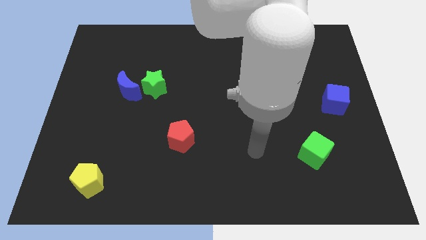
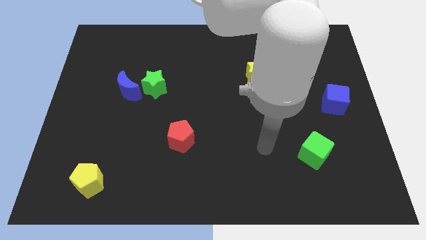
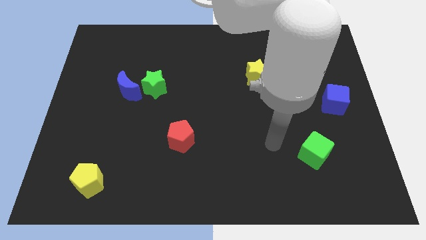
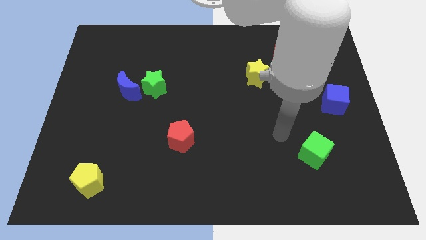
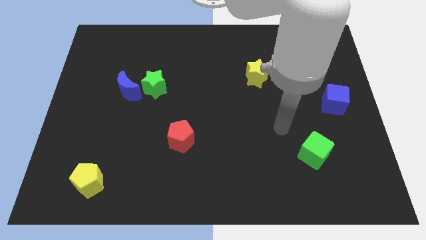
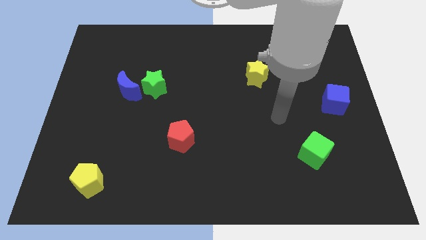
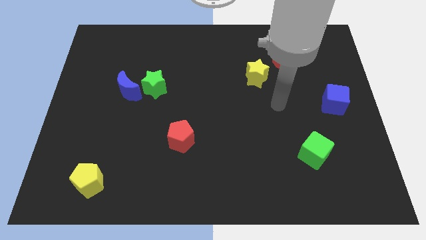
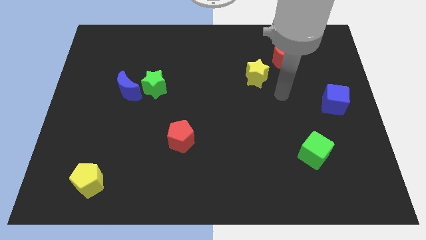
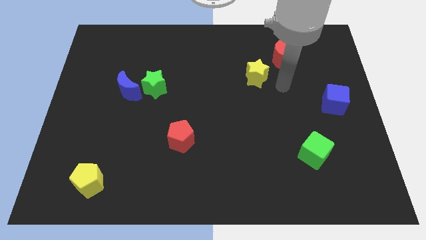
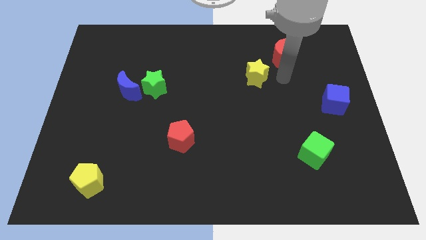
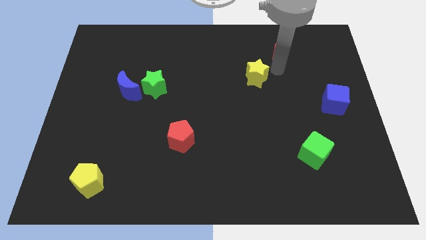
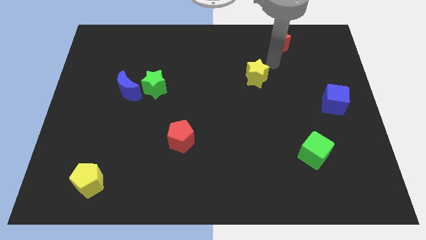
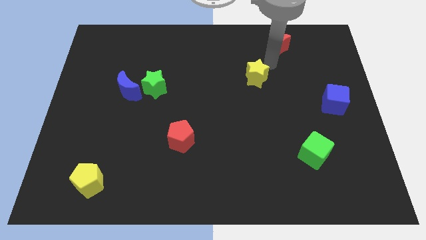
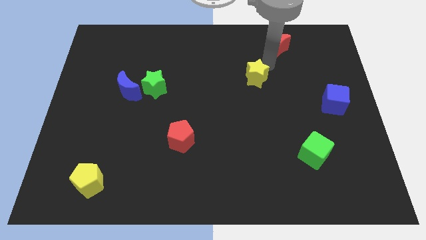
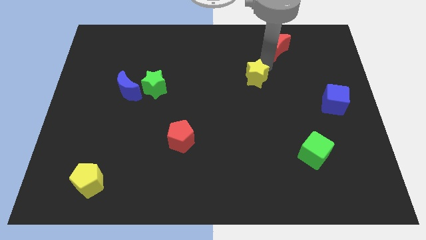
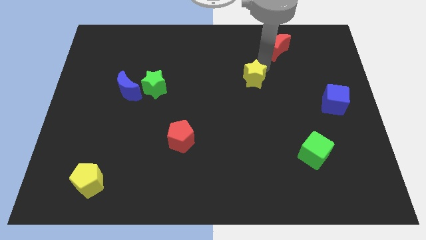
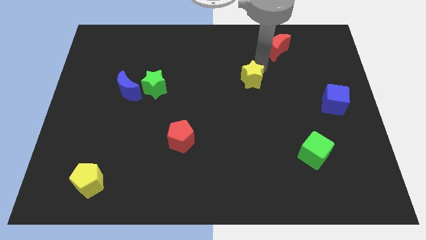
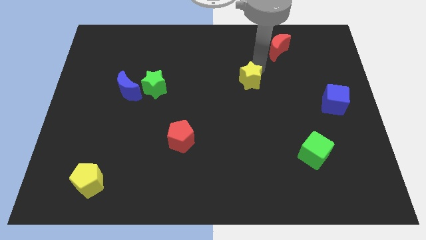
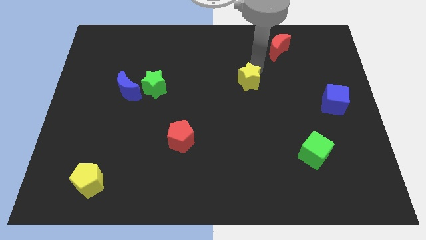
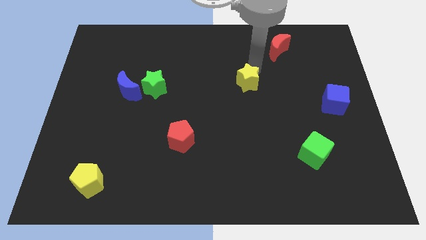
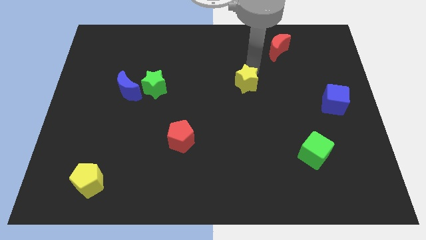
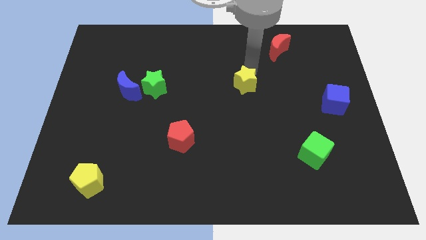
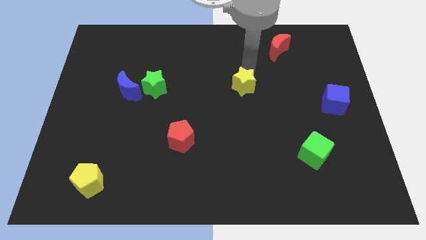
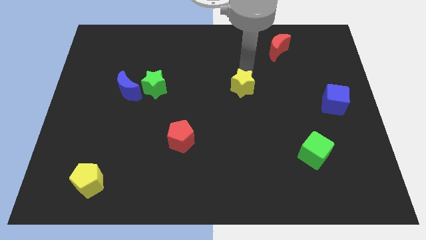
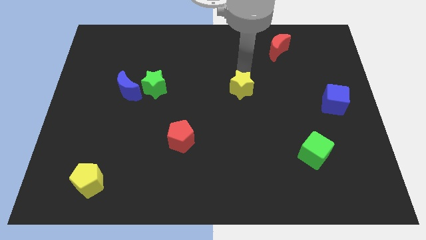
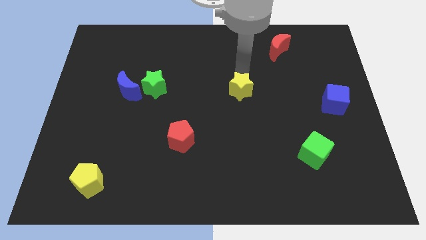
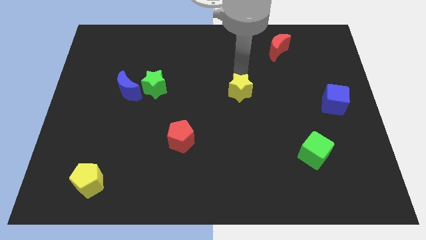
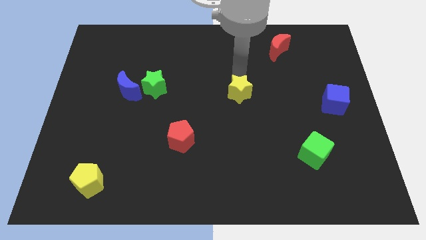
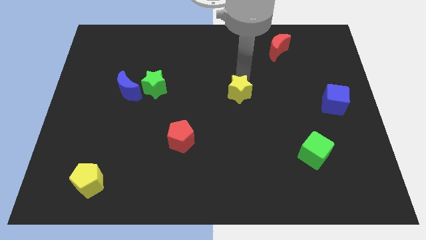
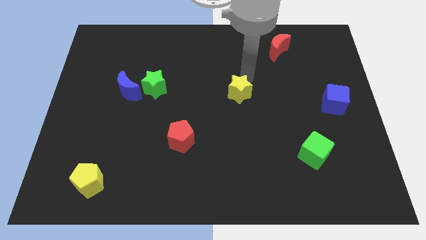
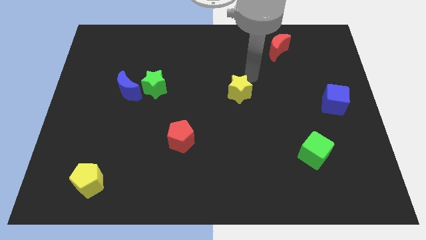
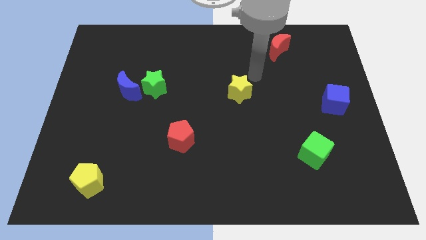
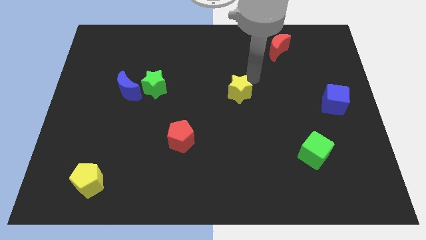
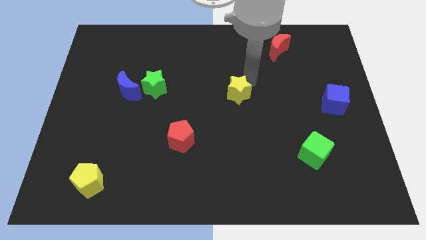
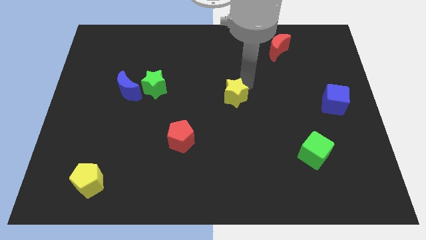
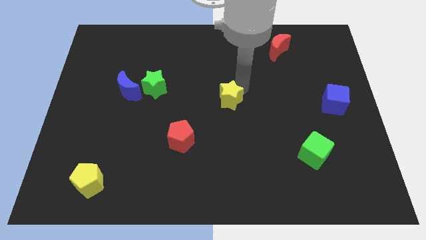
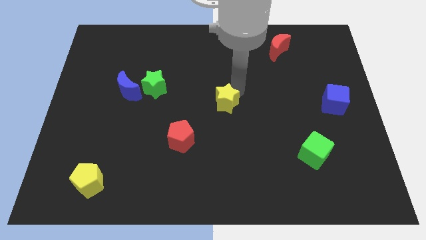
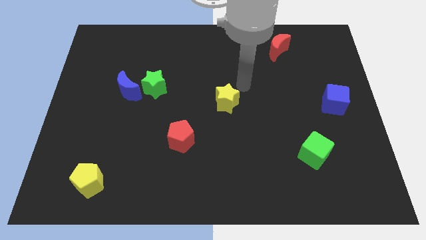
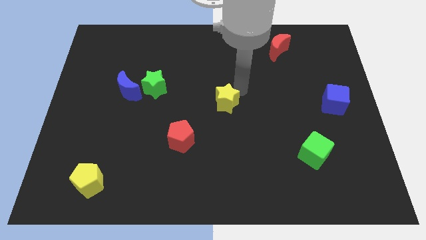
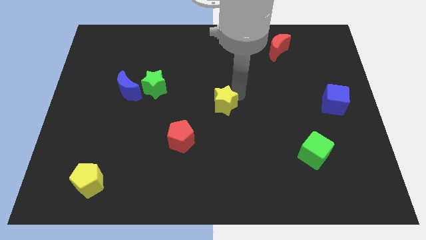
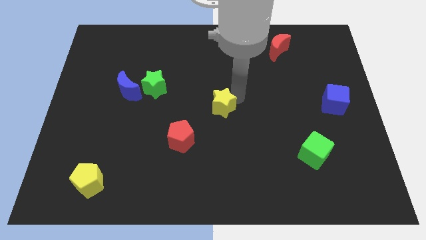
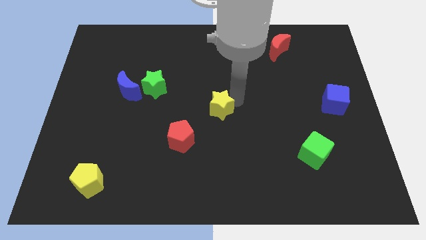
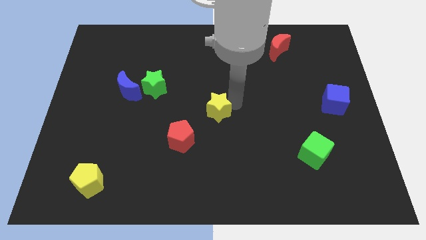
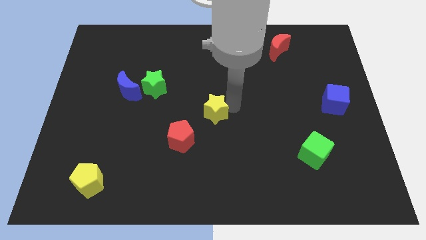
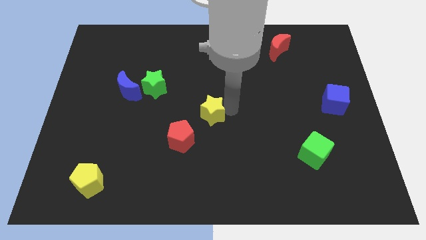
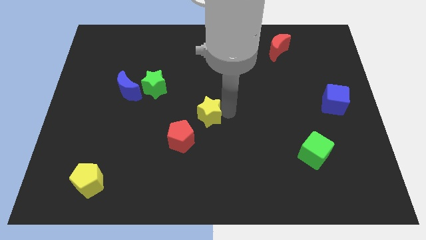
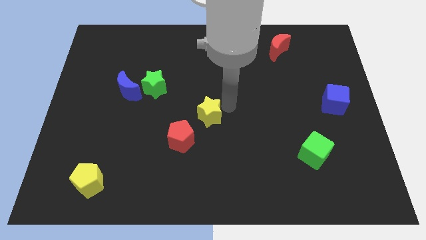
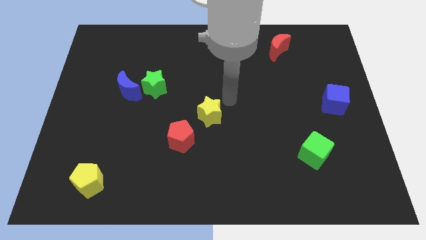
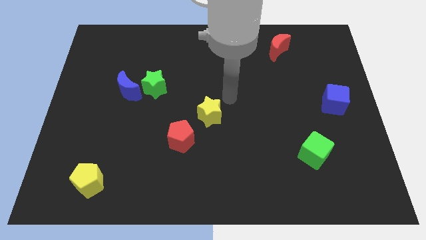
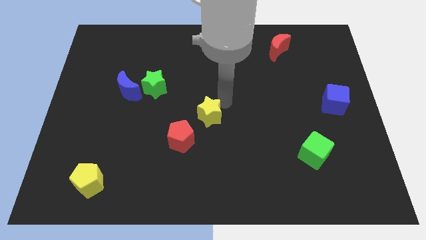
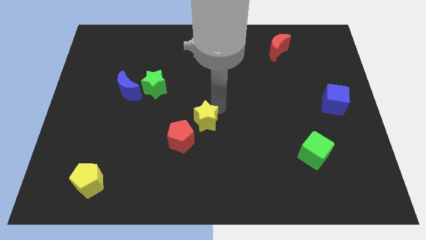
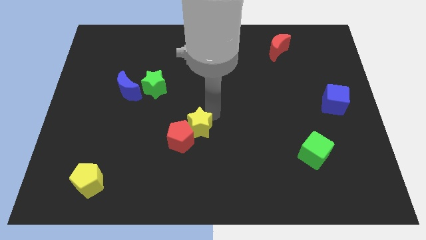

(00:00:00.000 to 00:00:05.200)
slide the yellow star towards the red pentagon

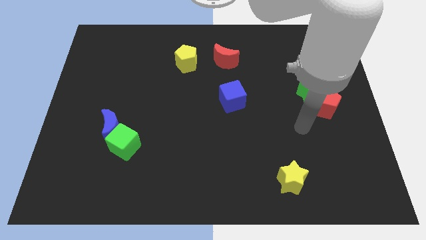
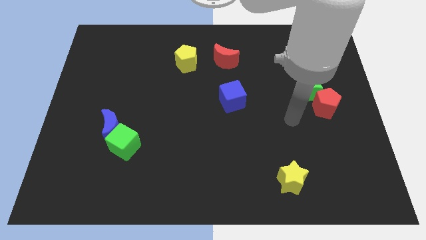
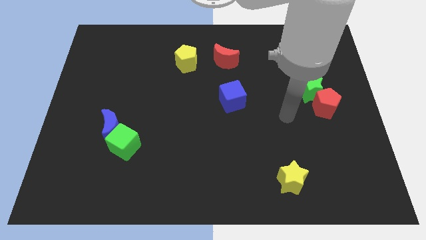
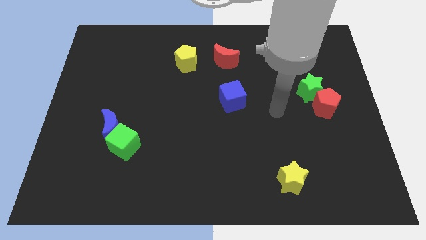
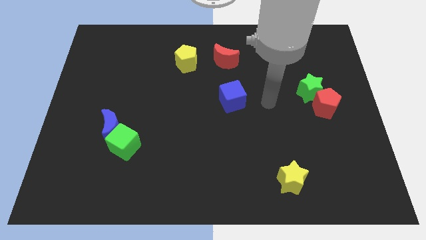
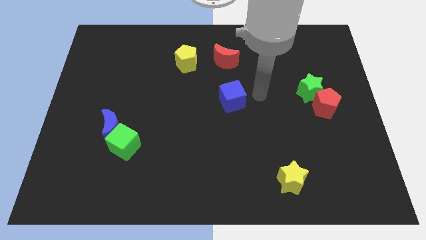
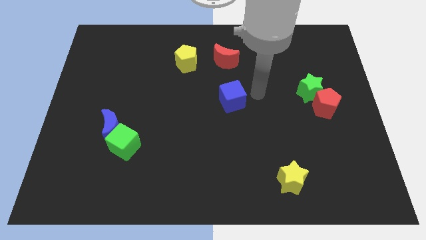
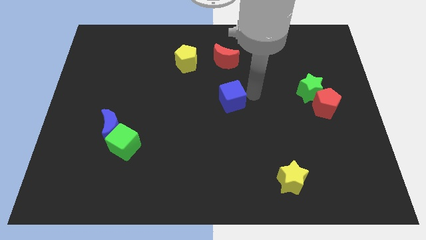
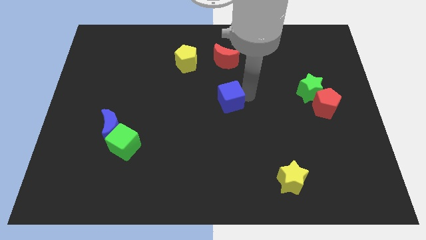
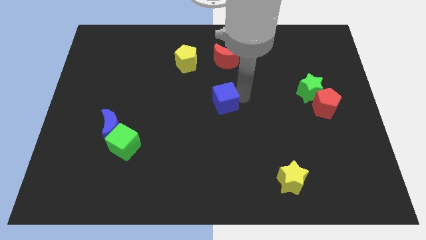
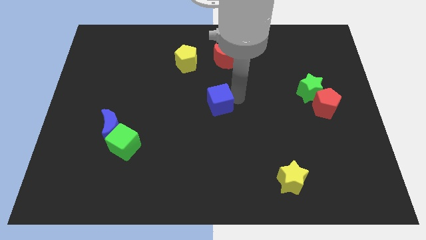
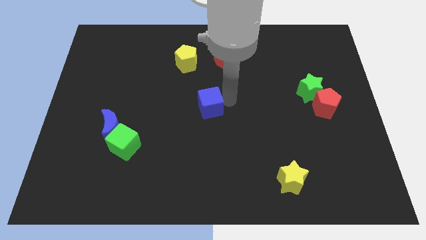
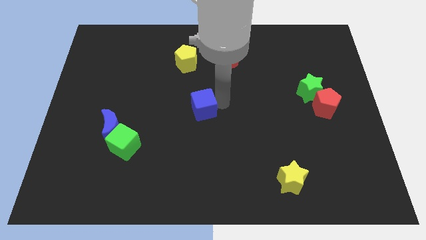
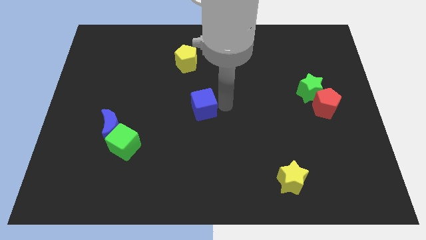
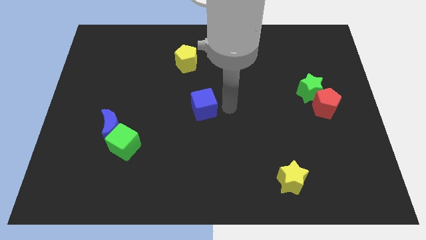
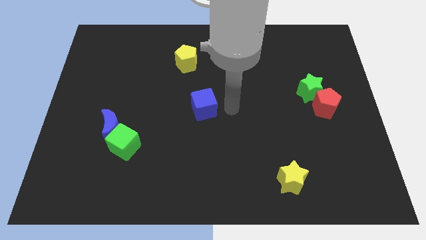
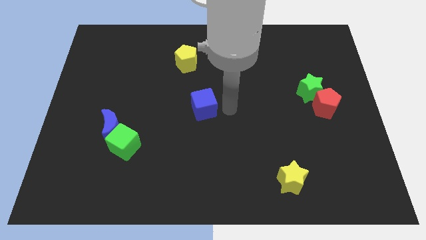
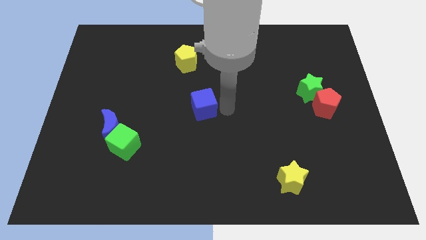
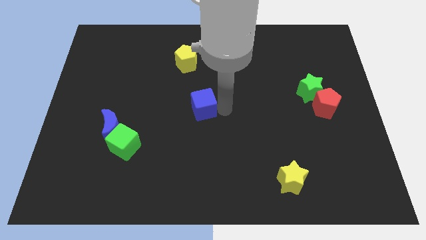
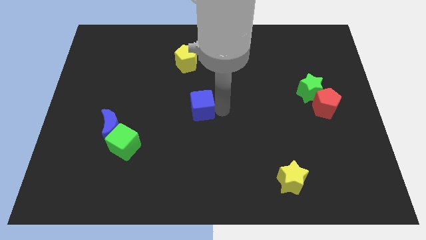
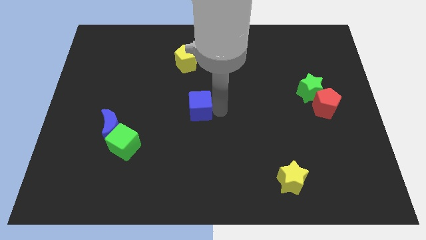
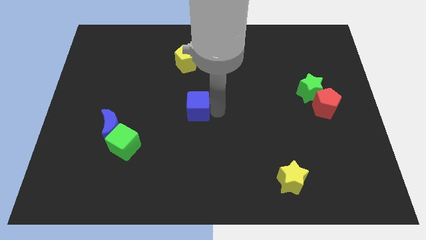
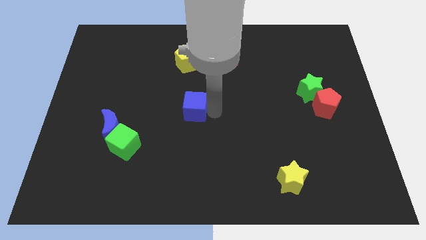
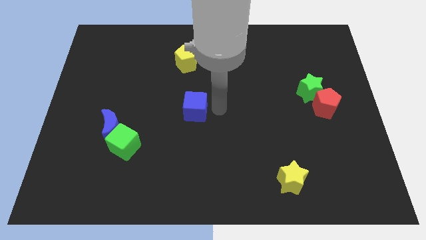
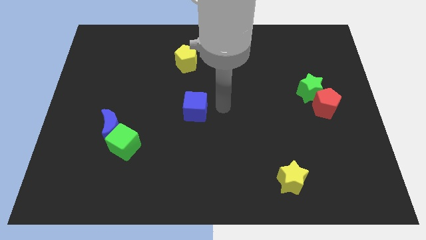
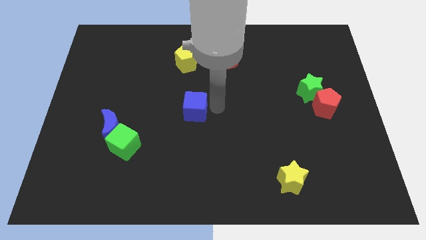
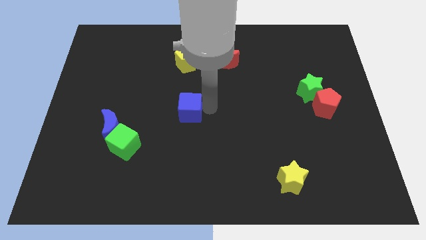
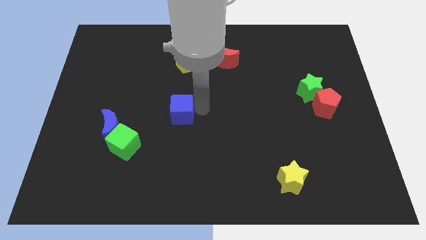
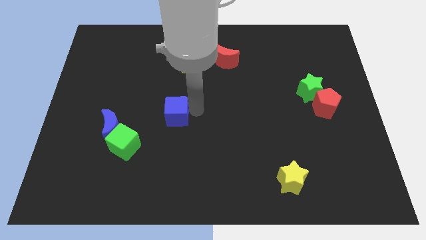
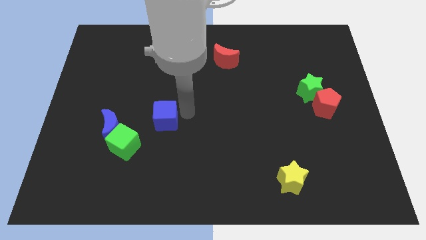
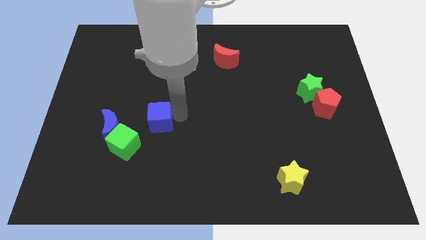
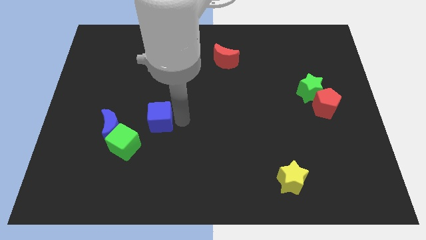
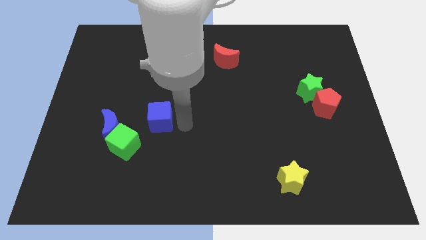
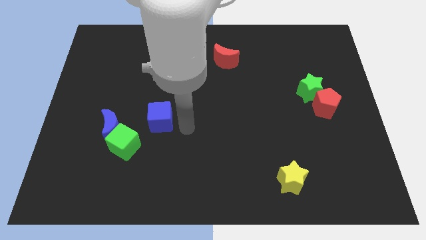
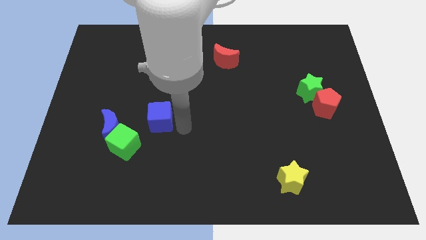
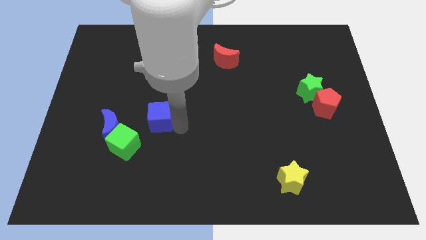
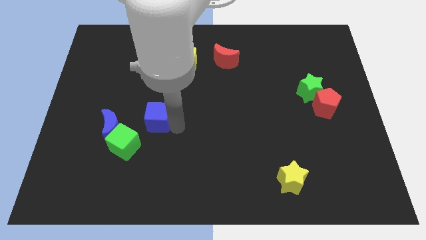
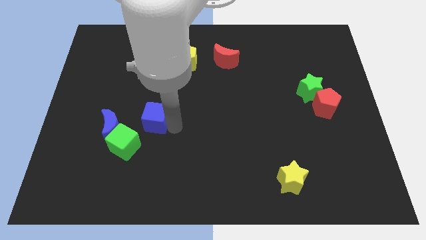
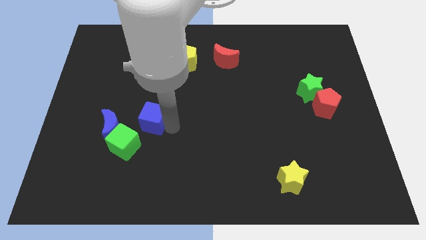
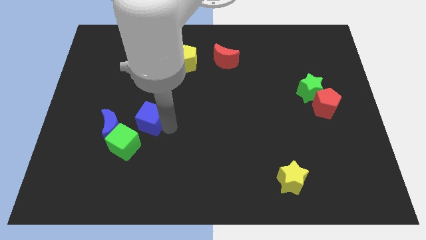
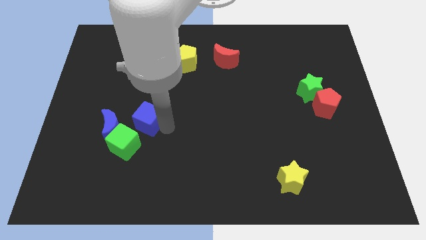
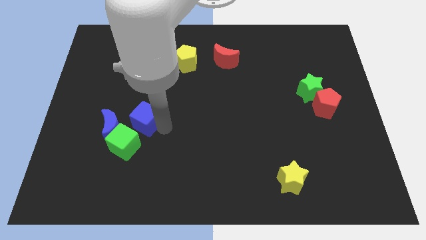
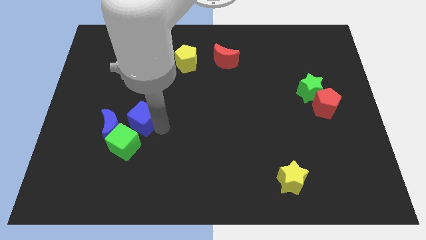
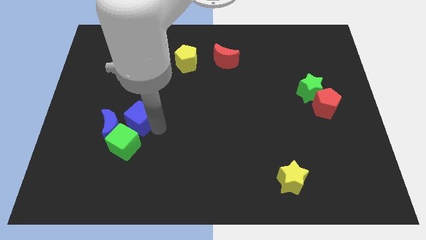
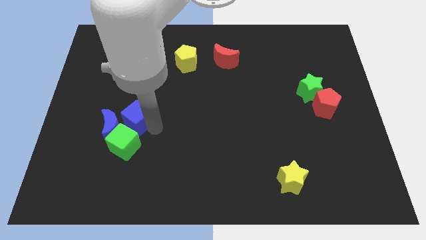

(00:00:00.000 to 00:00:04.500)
push the blue cube towards the blue moon
